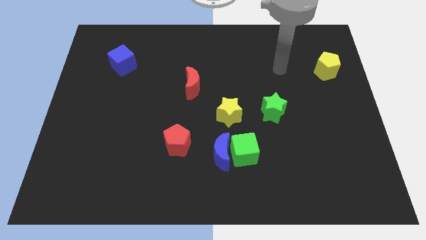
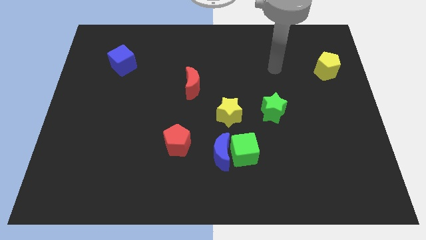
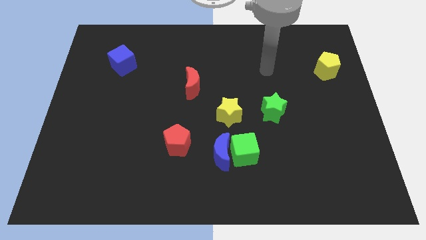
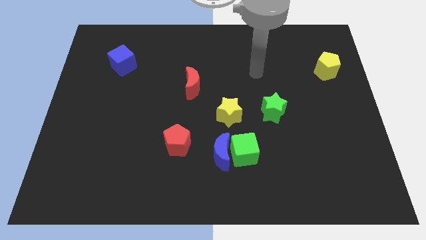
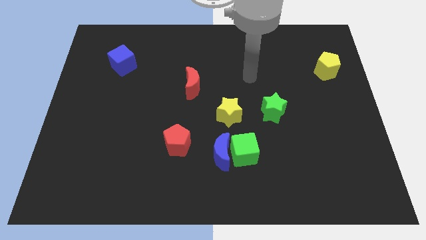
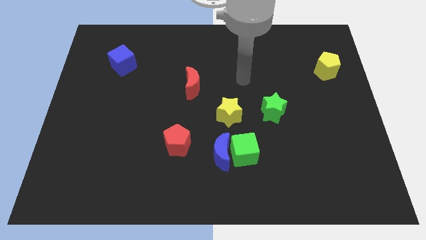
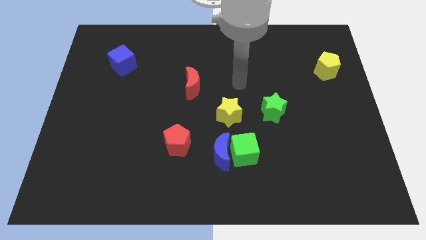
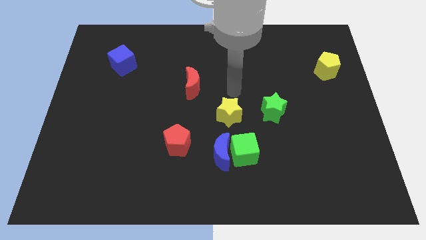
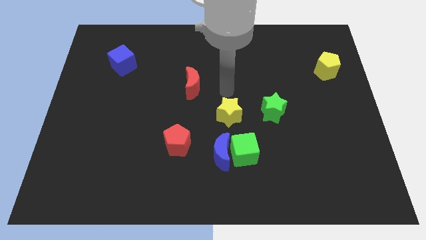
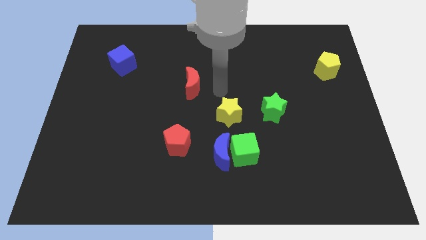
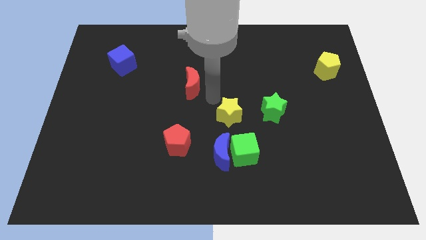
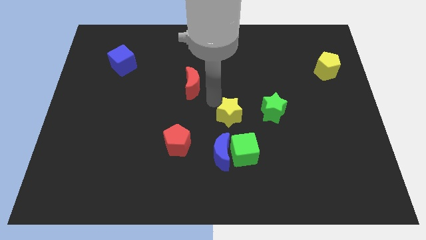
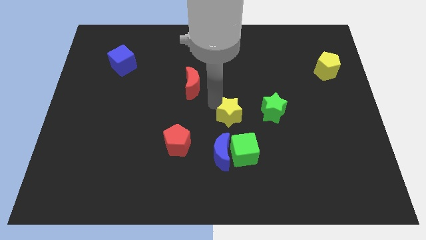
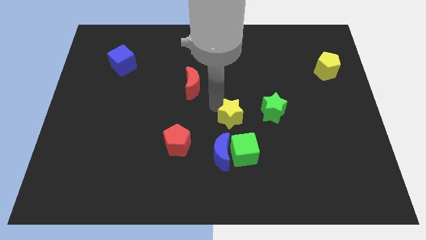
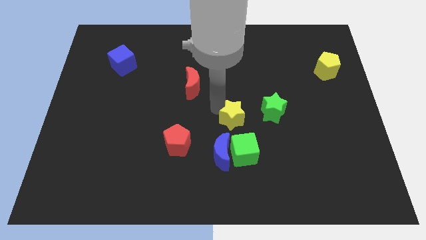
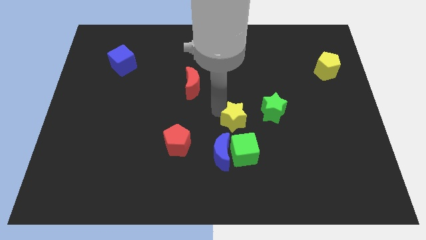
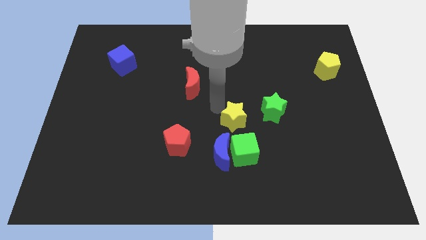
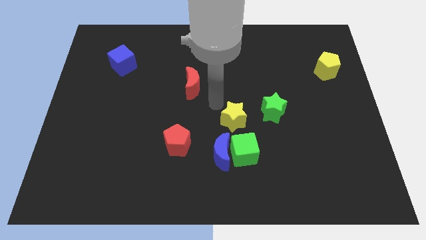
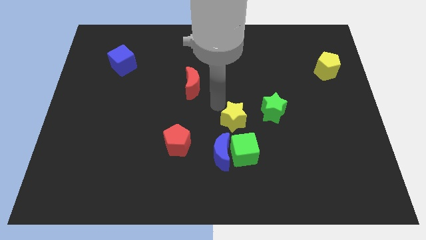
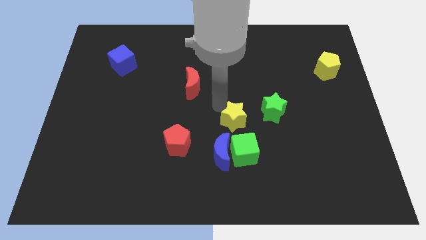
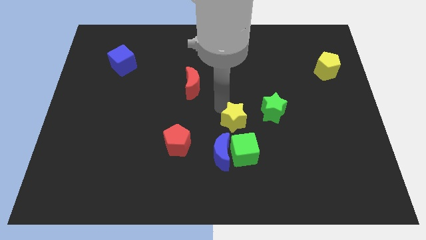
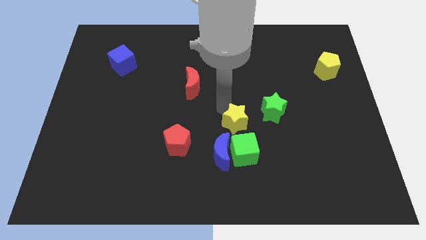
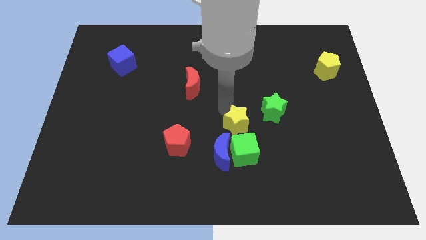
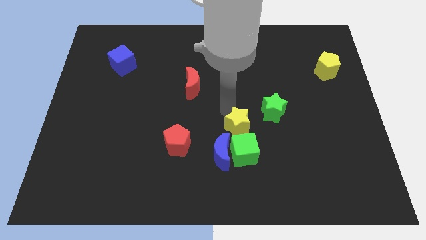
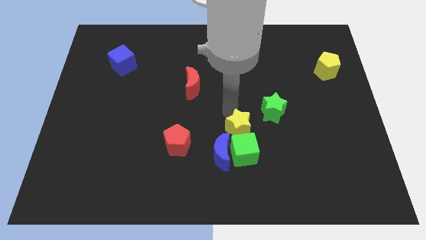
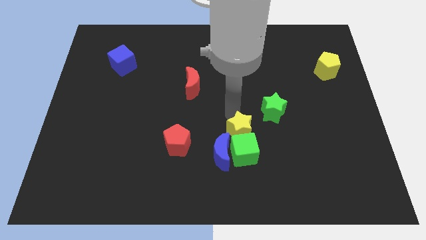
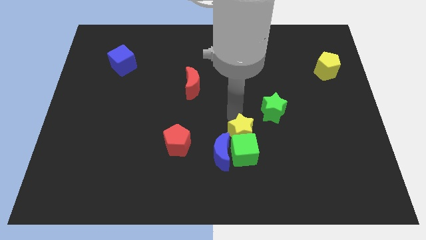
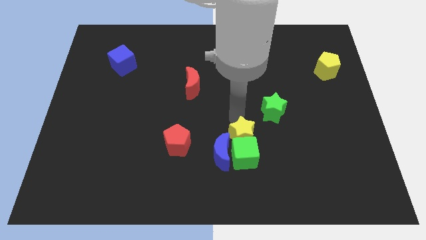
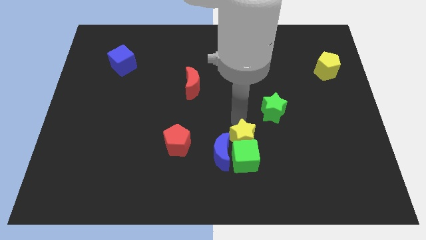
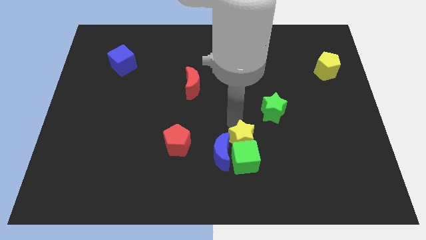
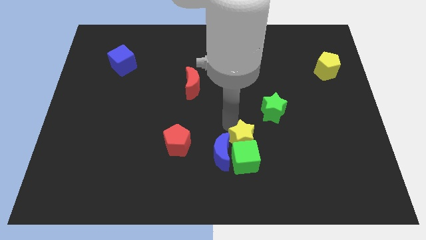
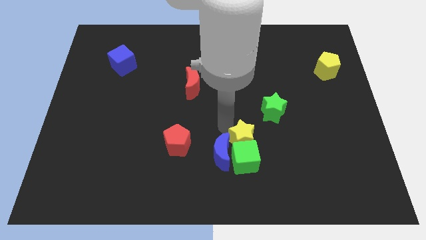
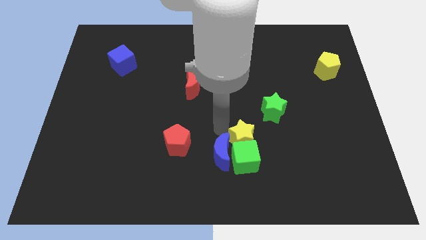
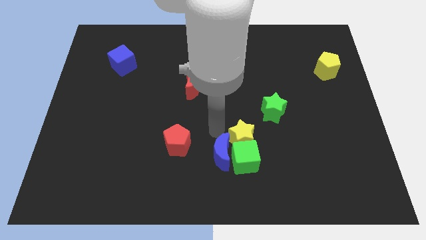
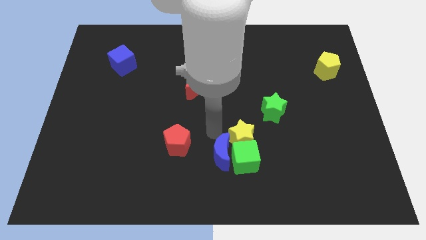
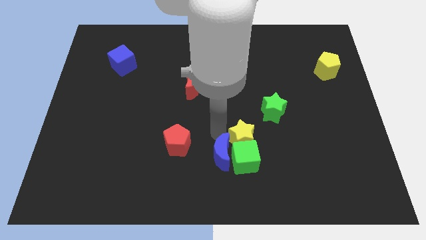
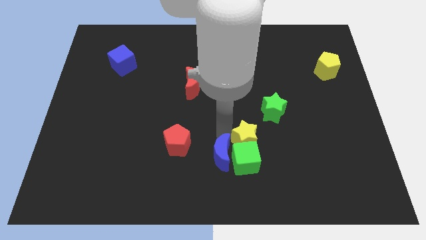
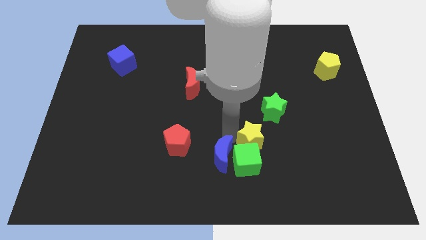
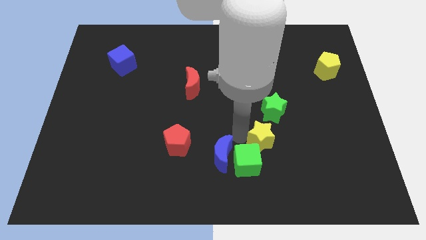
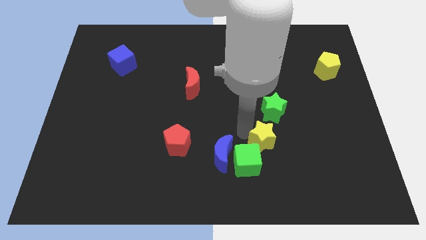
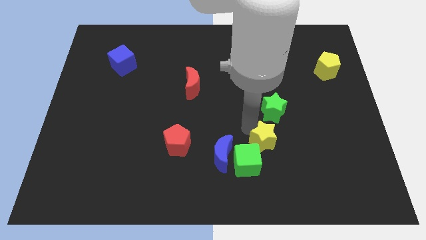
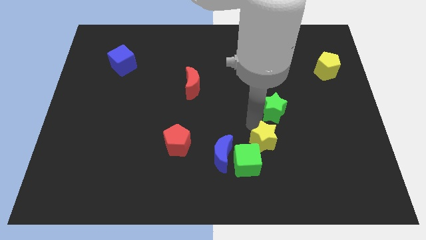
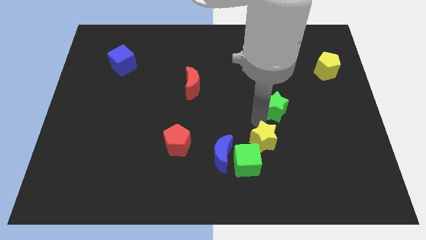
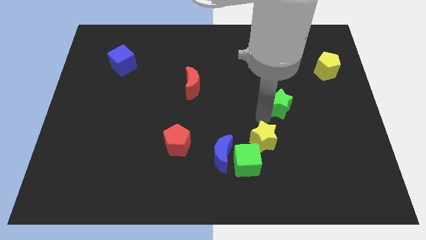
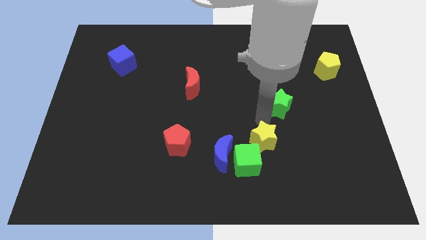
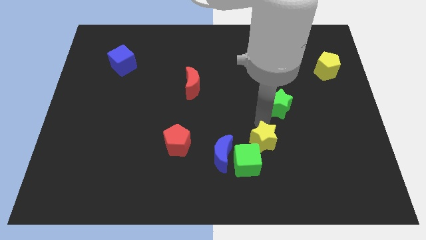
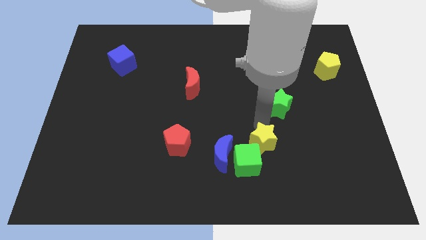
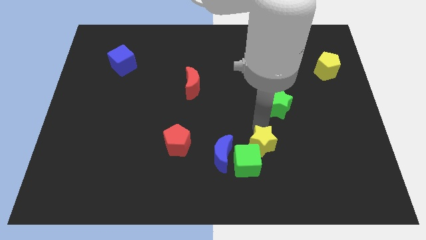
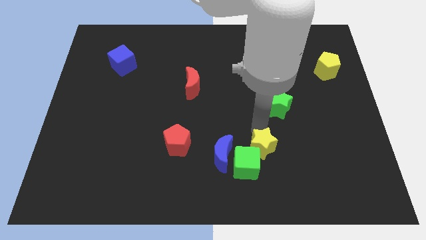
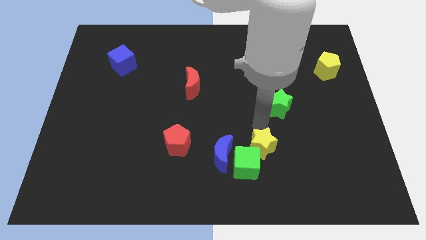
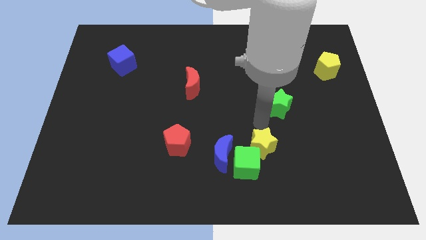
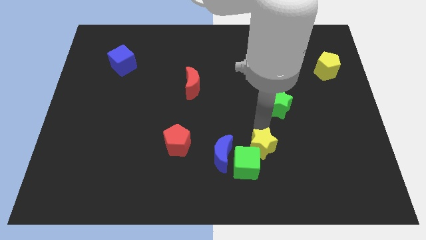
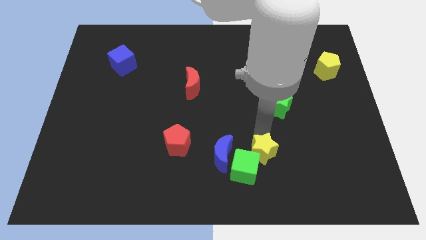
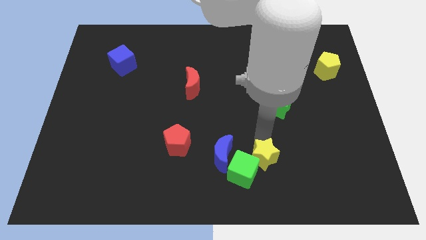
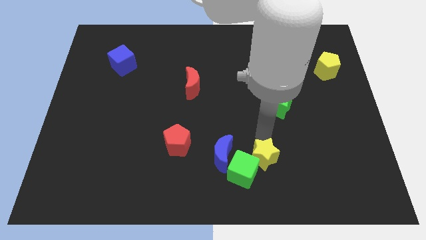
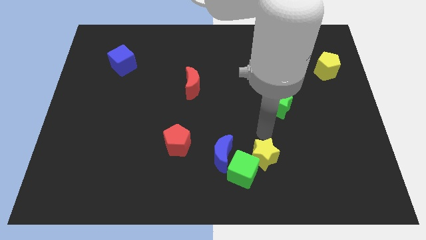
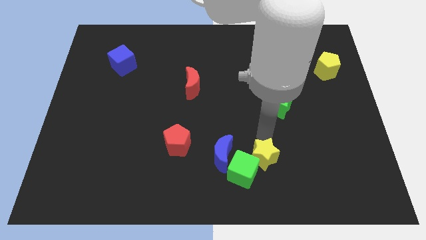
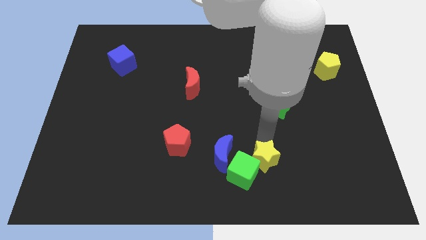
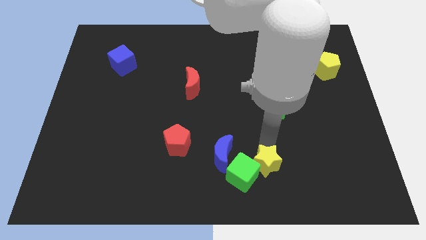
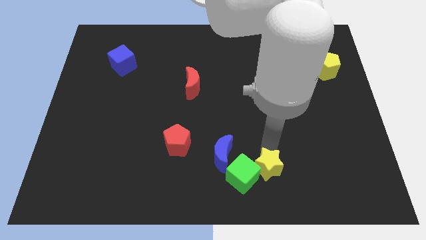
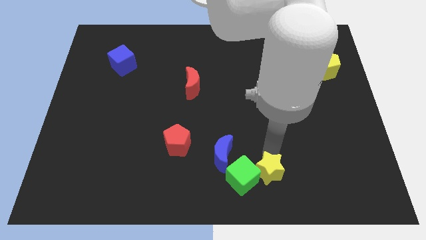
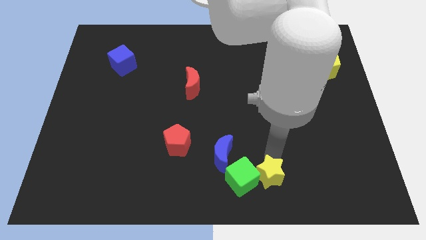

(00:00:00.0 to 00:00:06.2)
slide the yellow star to the bottom side
